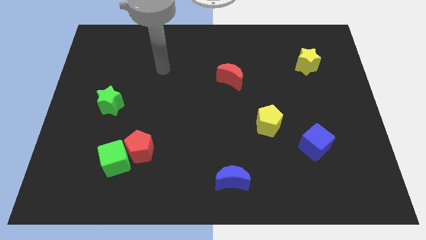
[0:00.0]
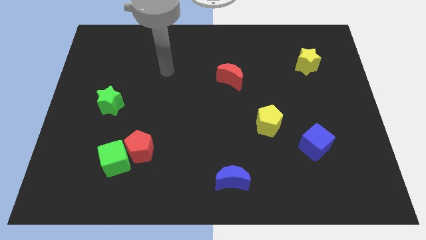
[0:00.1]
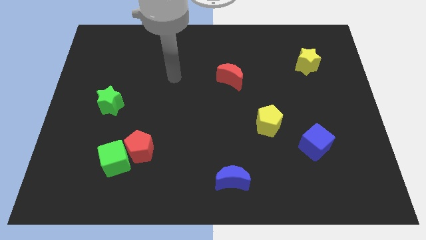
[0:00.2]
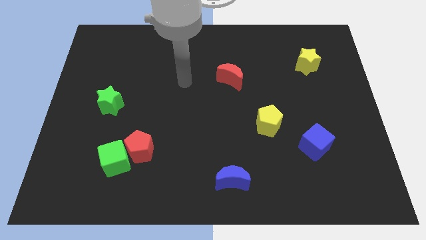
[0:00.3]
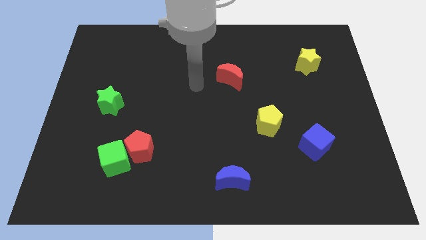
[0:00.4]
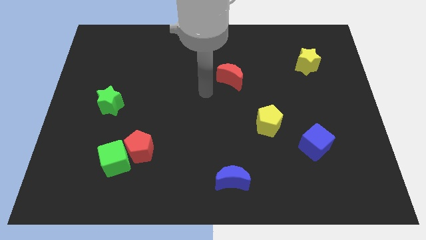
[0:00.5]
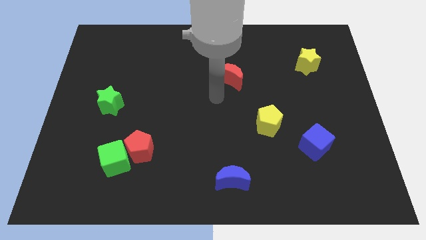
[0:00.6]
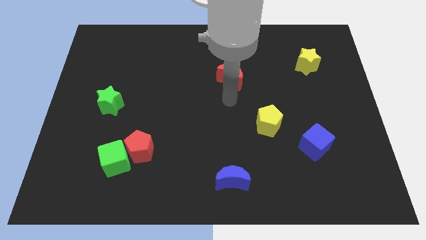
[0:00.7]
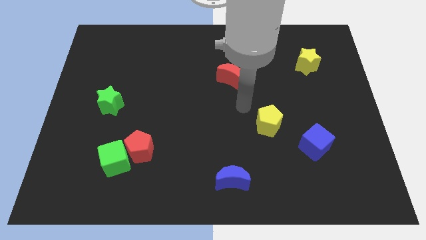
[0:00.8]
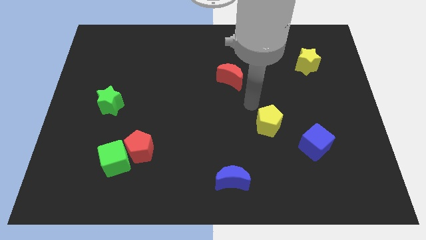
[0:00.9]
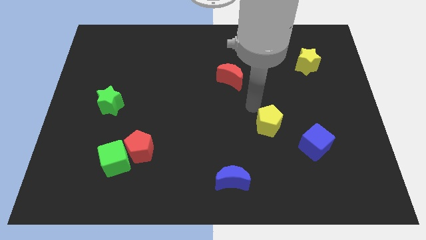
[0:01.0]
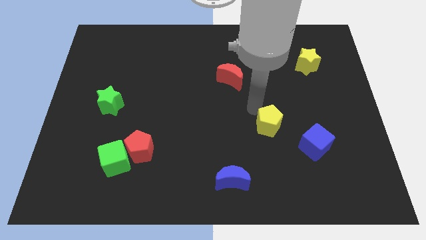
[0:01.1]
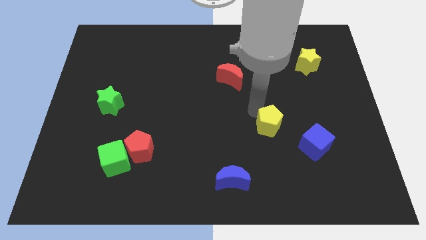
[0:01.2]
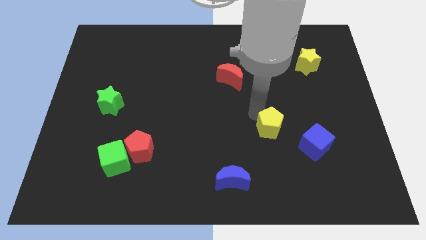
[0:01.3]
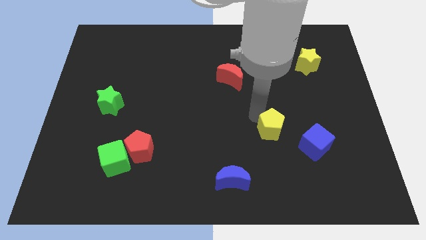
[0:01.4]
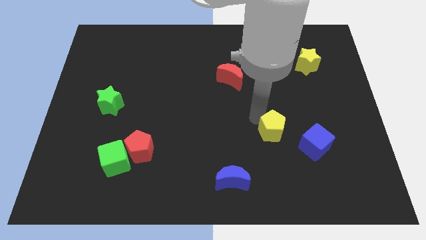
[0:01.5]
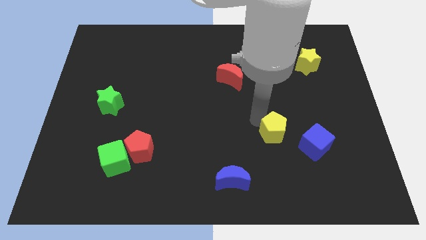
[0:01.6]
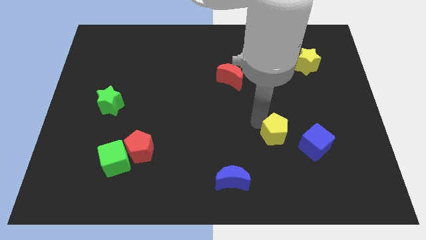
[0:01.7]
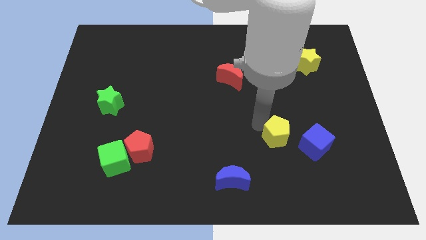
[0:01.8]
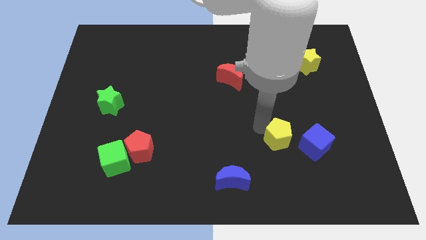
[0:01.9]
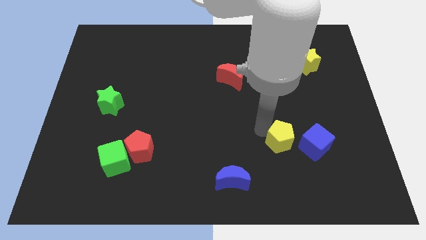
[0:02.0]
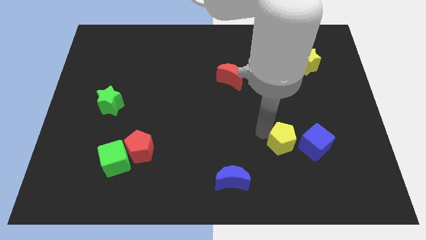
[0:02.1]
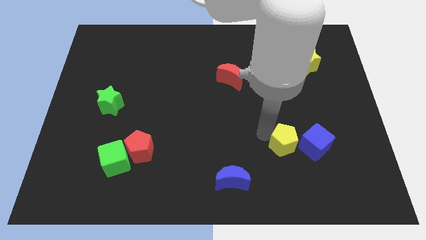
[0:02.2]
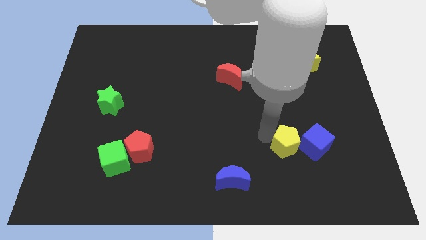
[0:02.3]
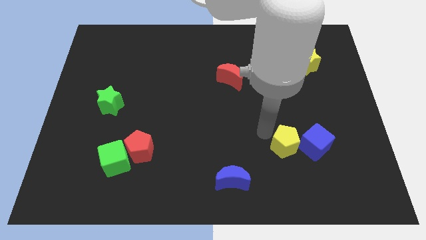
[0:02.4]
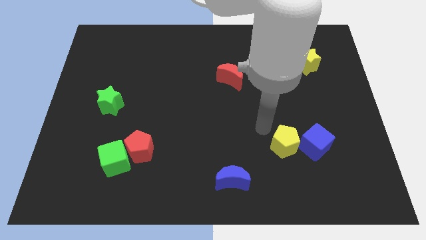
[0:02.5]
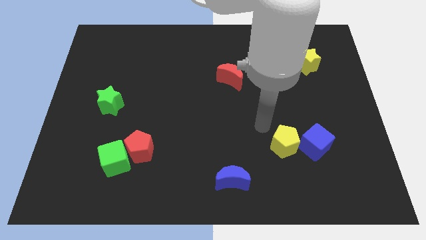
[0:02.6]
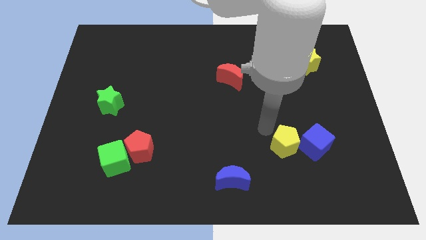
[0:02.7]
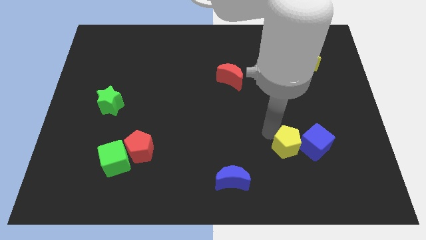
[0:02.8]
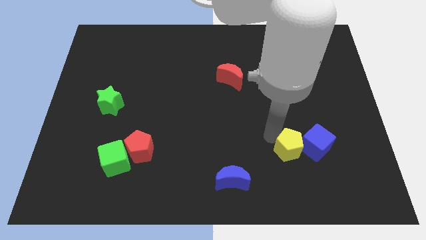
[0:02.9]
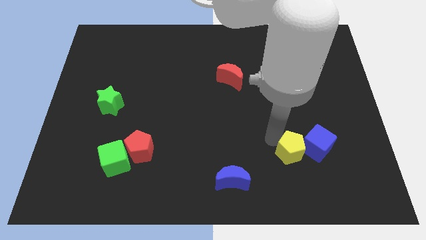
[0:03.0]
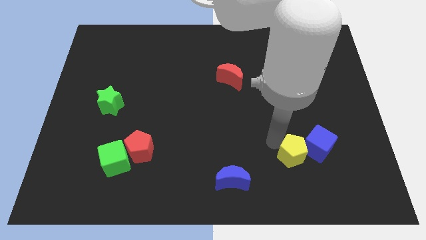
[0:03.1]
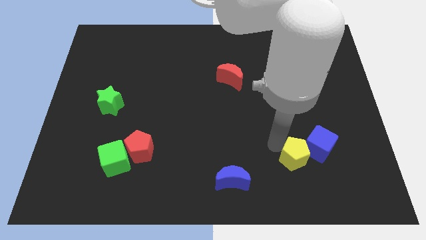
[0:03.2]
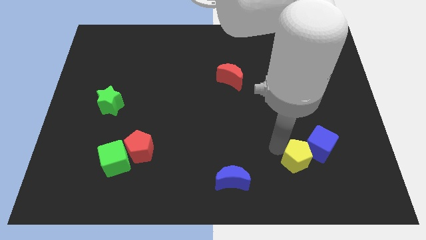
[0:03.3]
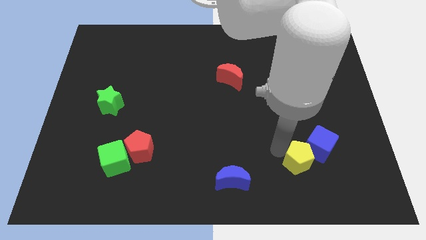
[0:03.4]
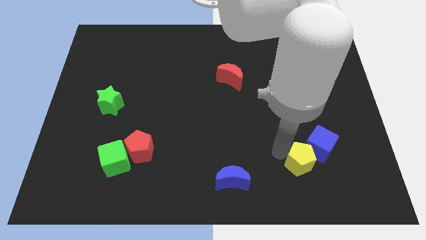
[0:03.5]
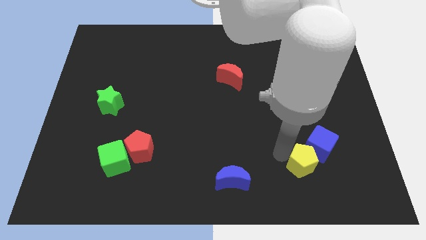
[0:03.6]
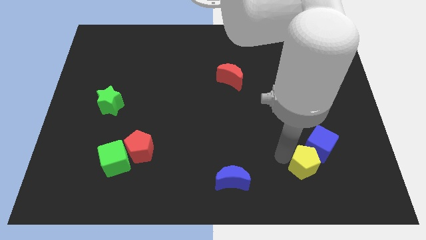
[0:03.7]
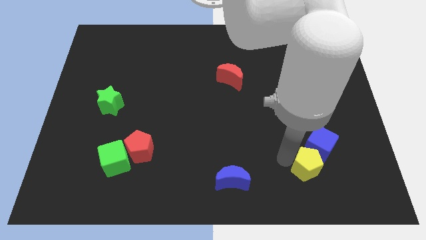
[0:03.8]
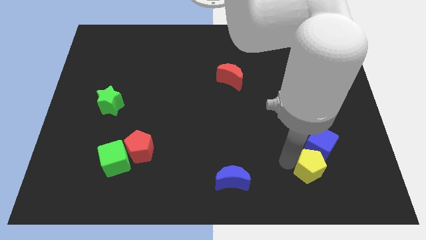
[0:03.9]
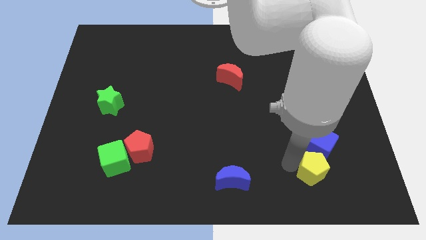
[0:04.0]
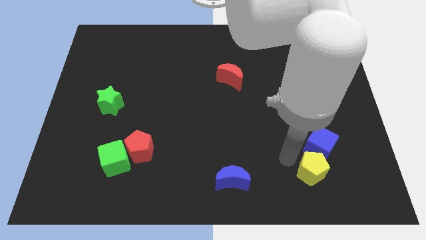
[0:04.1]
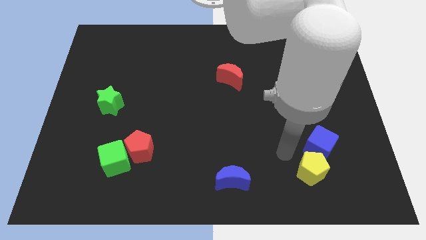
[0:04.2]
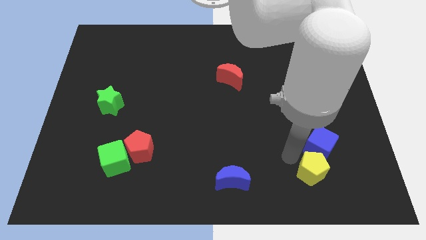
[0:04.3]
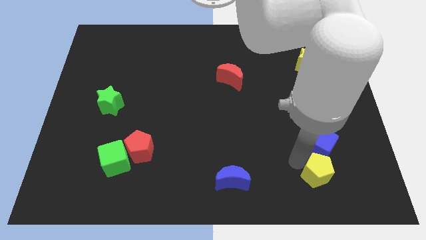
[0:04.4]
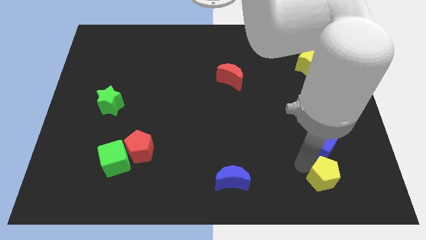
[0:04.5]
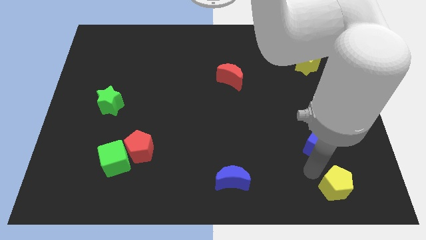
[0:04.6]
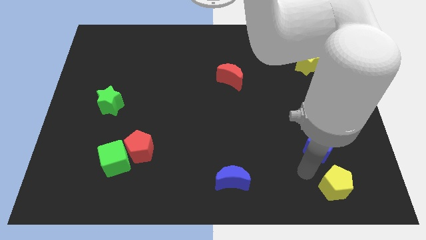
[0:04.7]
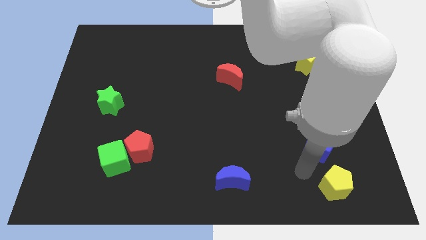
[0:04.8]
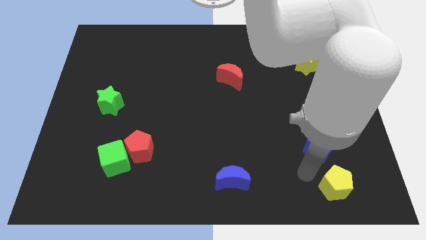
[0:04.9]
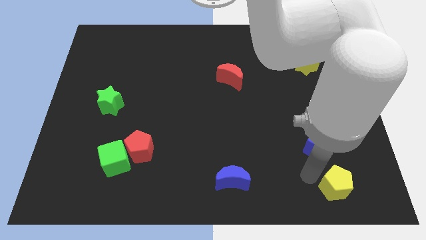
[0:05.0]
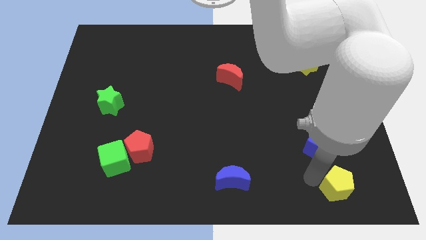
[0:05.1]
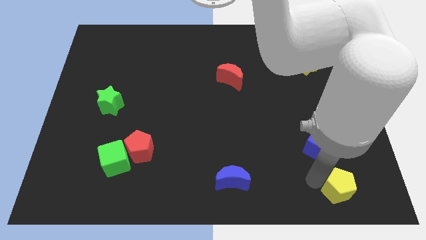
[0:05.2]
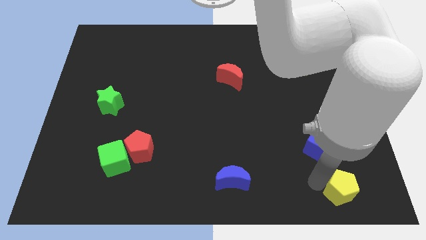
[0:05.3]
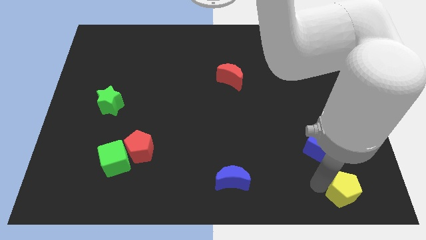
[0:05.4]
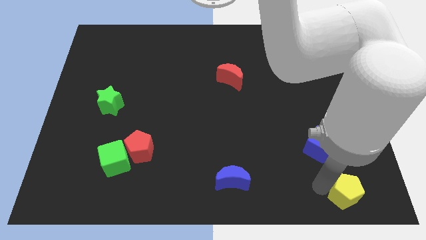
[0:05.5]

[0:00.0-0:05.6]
slide the yellow pentagon to the bottom right corner

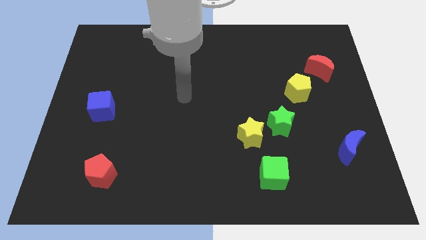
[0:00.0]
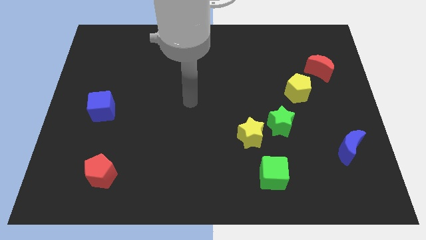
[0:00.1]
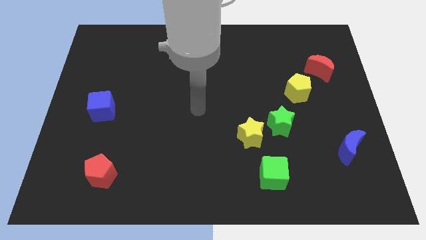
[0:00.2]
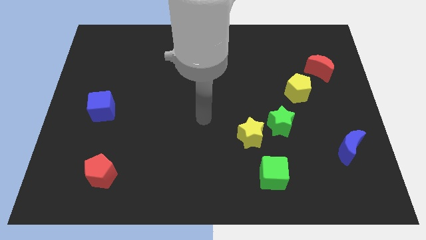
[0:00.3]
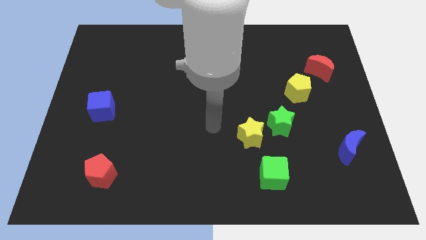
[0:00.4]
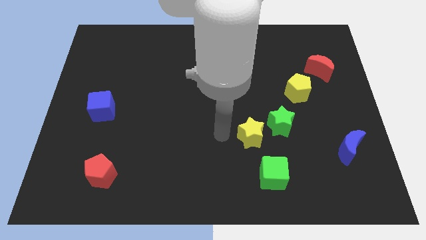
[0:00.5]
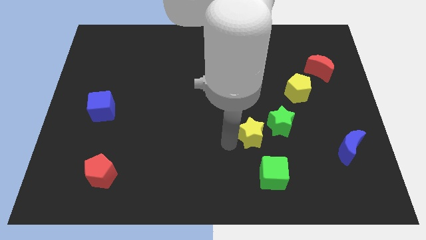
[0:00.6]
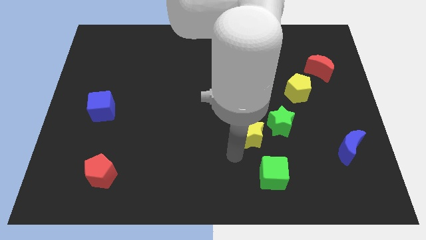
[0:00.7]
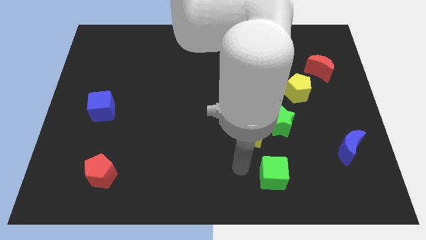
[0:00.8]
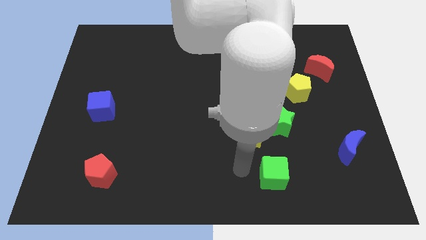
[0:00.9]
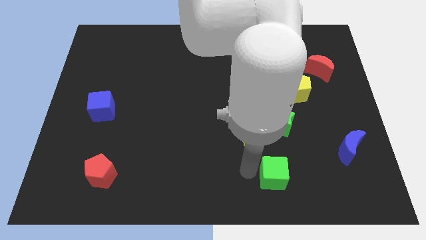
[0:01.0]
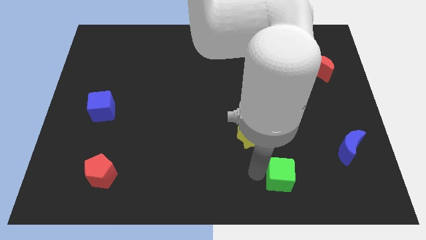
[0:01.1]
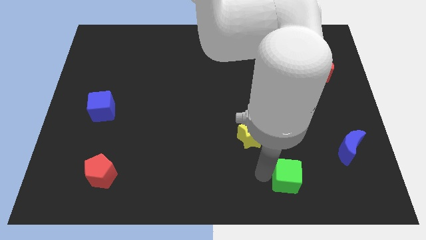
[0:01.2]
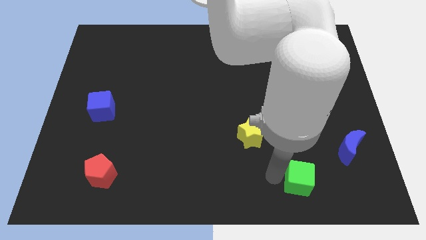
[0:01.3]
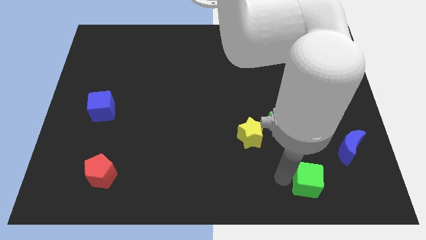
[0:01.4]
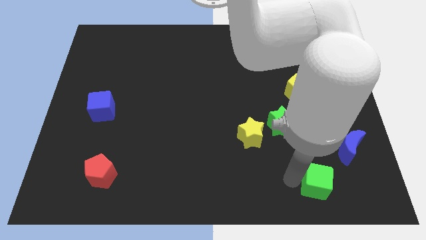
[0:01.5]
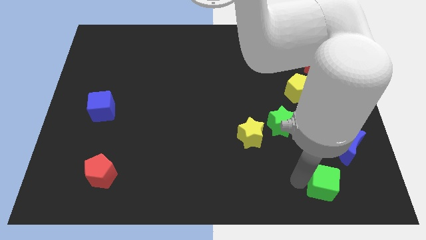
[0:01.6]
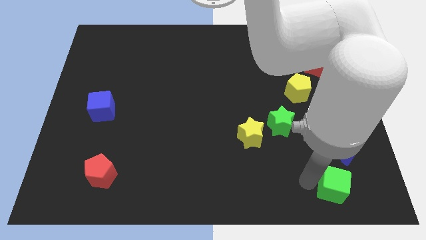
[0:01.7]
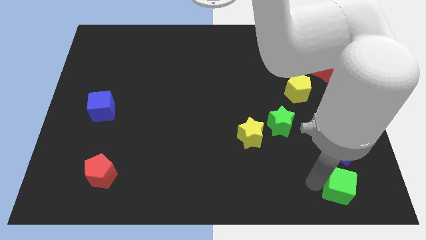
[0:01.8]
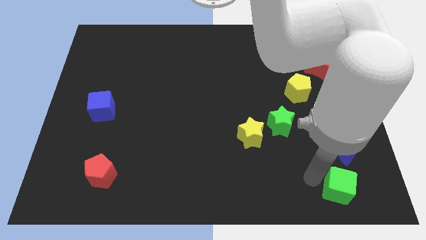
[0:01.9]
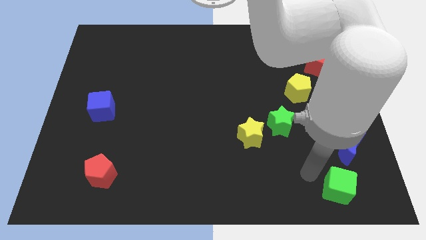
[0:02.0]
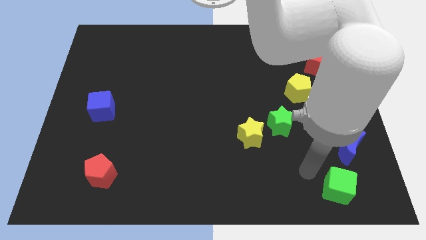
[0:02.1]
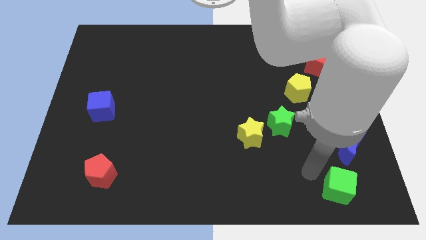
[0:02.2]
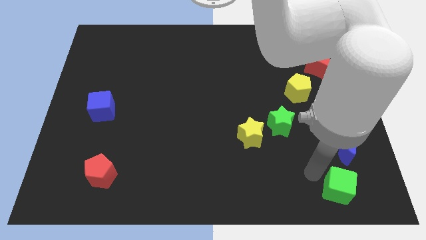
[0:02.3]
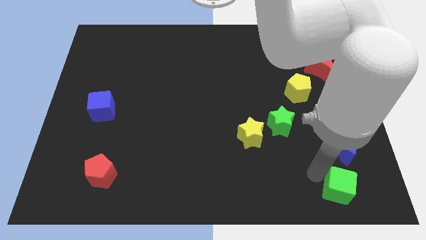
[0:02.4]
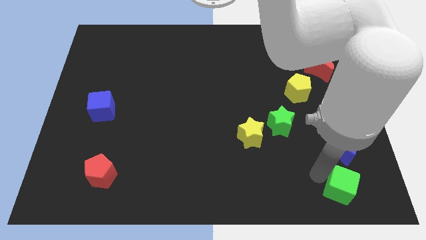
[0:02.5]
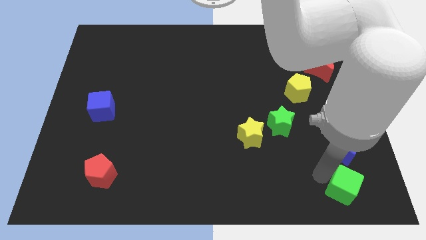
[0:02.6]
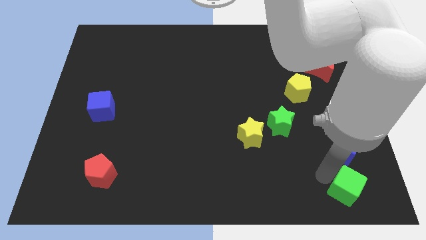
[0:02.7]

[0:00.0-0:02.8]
slide the green cube to the lower right corner
